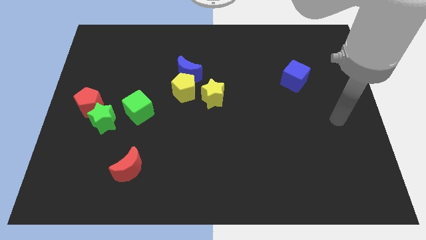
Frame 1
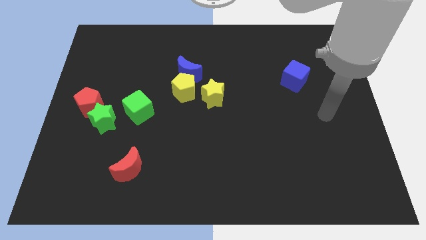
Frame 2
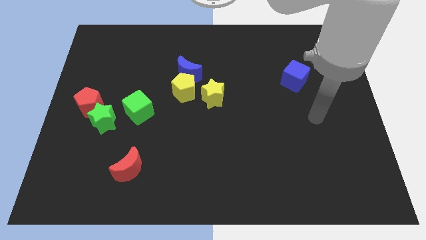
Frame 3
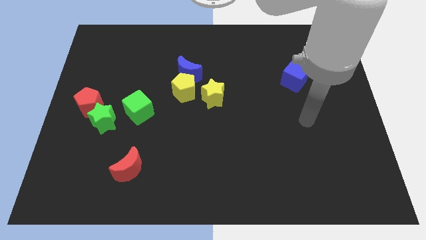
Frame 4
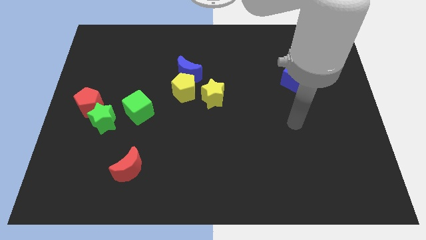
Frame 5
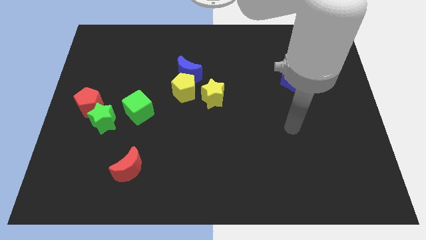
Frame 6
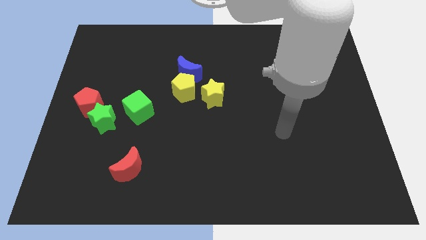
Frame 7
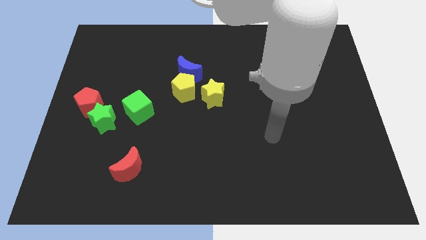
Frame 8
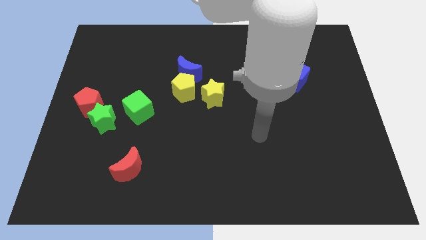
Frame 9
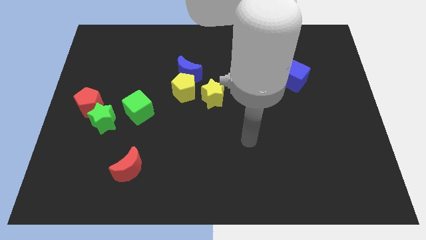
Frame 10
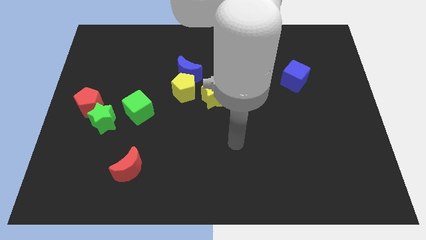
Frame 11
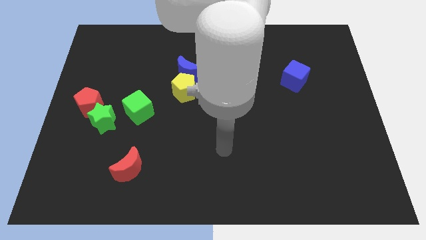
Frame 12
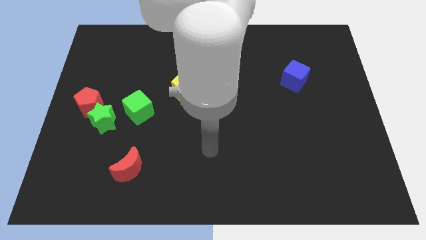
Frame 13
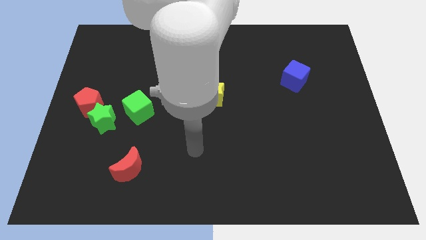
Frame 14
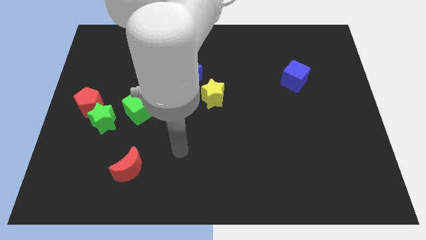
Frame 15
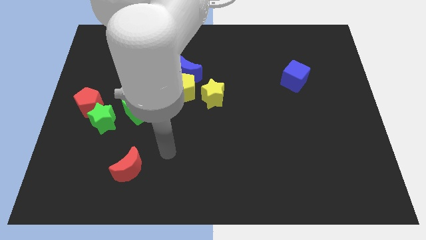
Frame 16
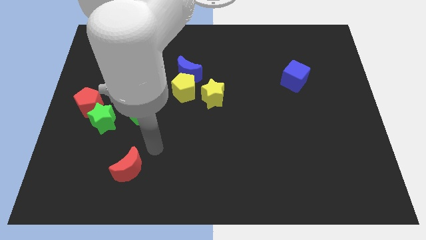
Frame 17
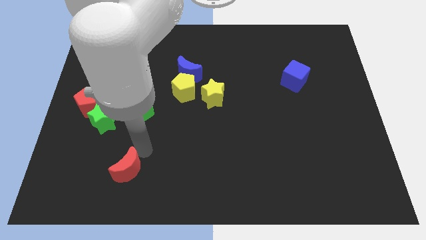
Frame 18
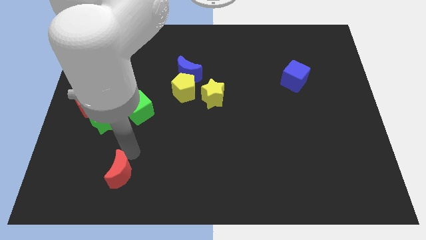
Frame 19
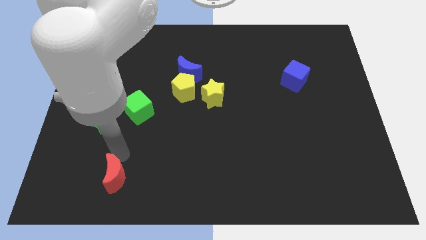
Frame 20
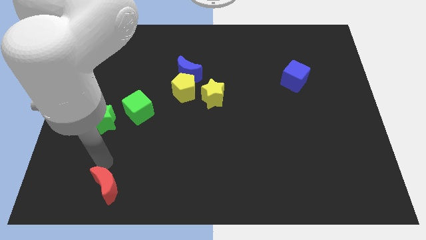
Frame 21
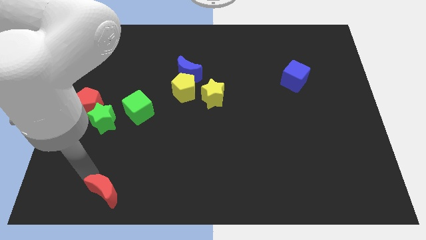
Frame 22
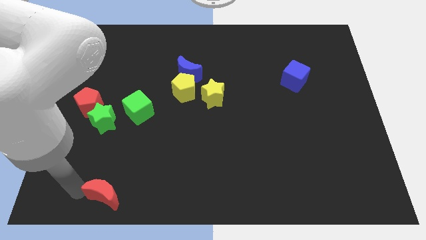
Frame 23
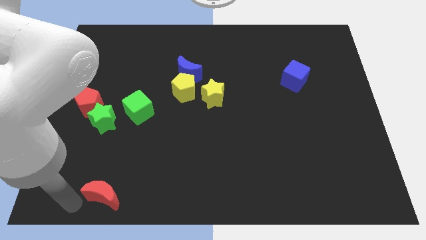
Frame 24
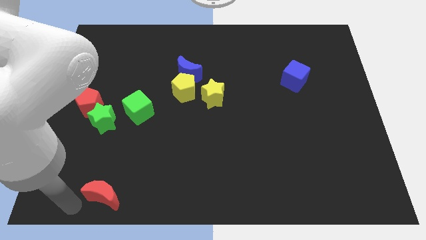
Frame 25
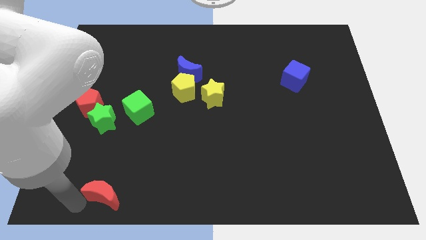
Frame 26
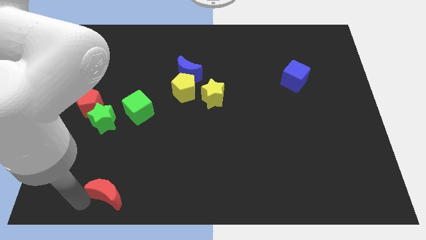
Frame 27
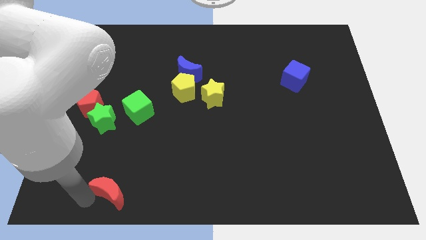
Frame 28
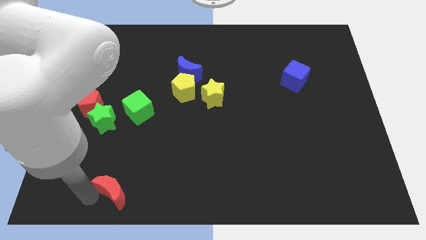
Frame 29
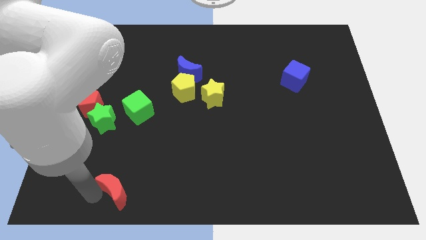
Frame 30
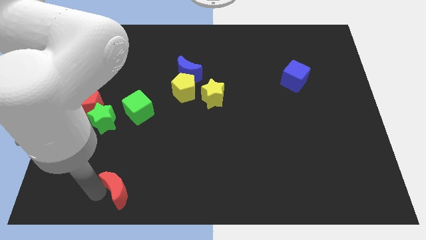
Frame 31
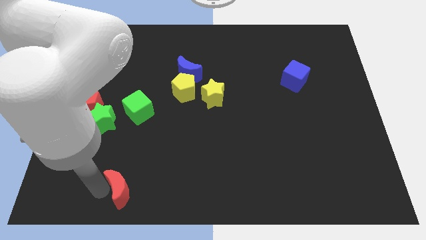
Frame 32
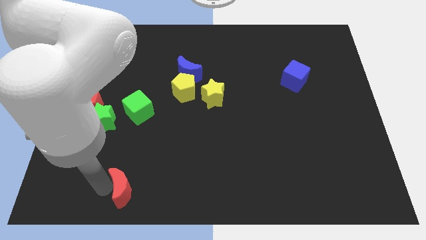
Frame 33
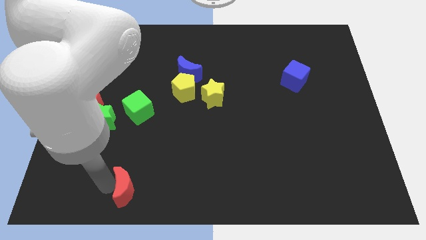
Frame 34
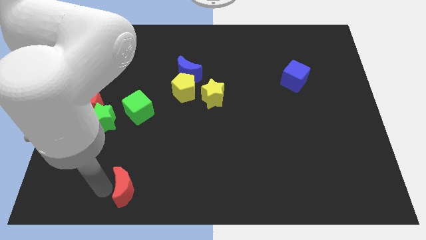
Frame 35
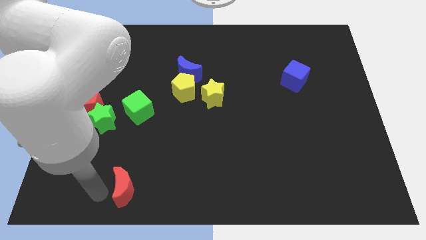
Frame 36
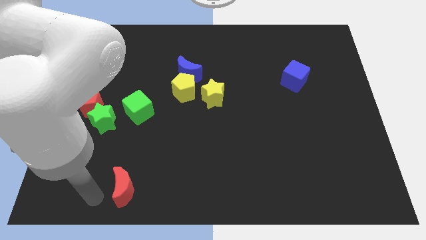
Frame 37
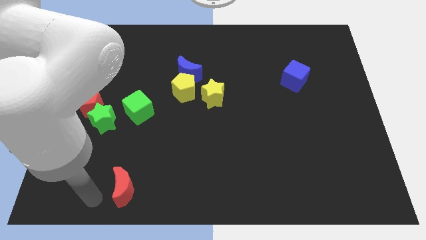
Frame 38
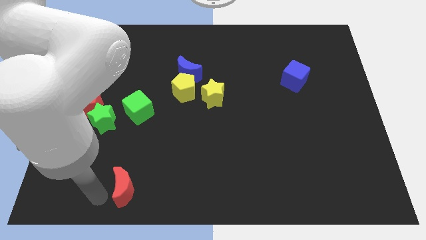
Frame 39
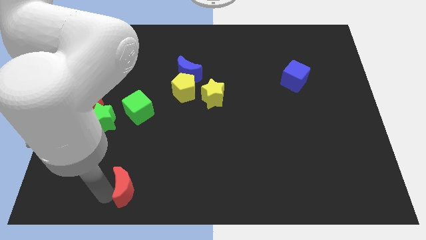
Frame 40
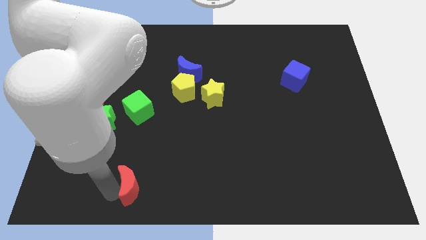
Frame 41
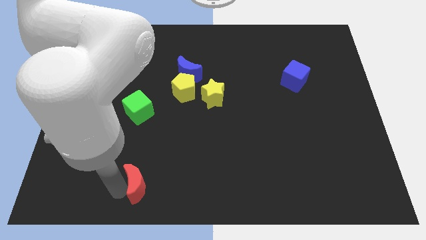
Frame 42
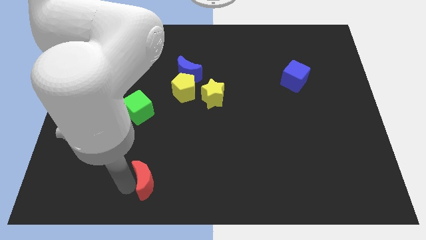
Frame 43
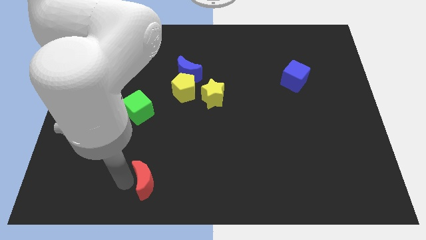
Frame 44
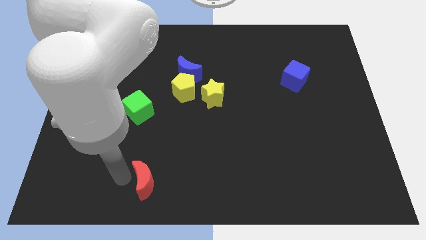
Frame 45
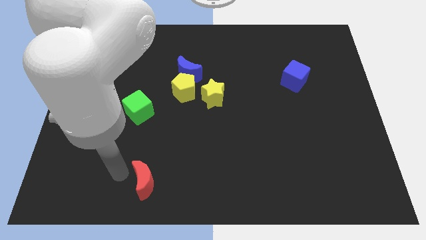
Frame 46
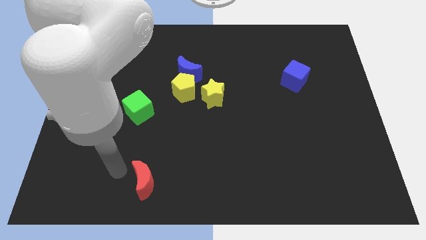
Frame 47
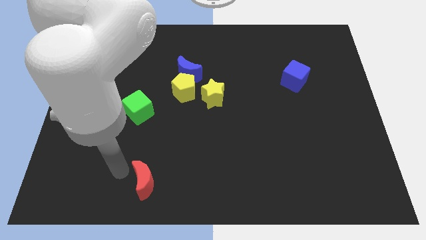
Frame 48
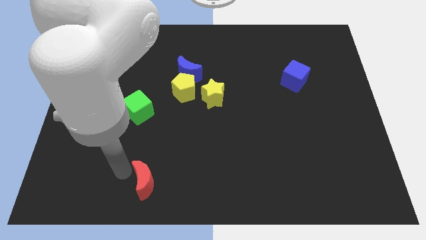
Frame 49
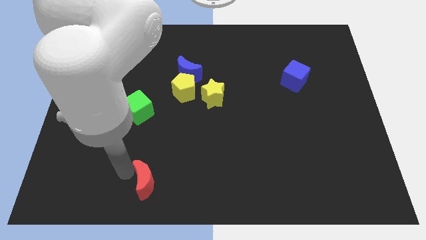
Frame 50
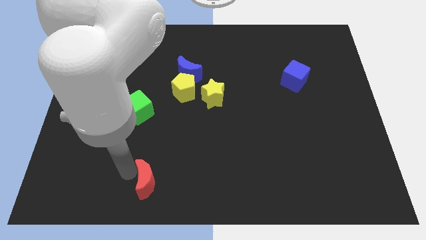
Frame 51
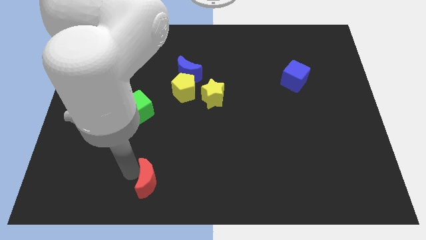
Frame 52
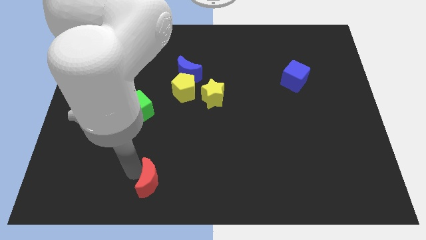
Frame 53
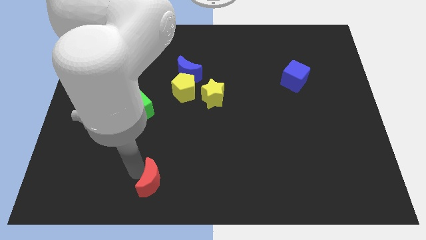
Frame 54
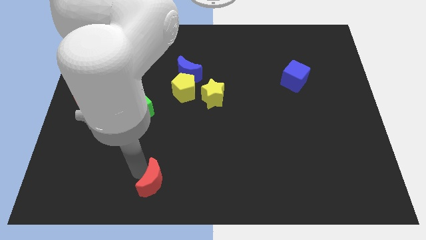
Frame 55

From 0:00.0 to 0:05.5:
slide the red moon to the bottom side
